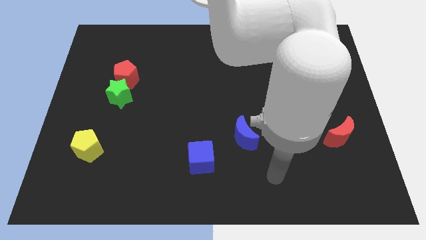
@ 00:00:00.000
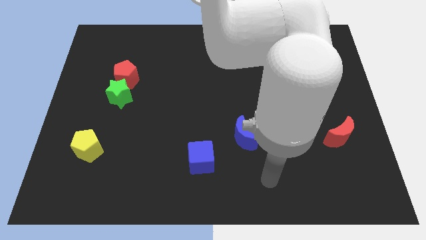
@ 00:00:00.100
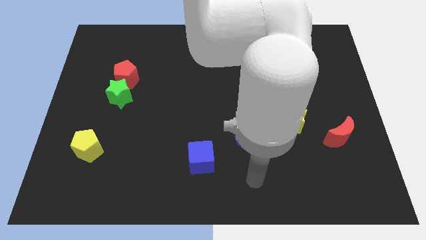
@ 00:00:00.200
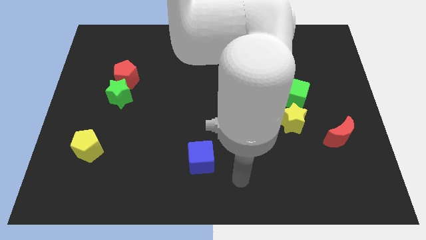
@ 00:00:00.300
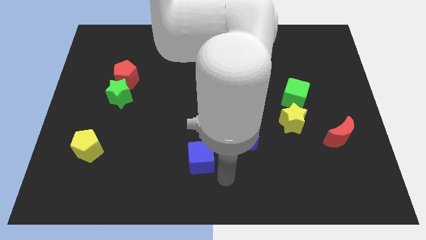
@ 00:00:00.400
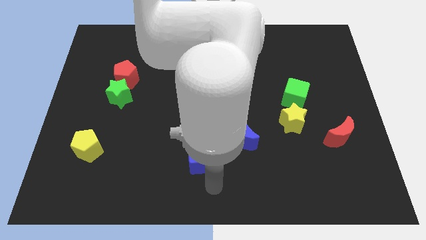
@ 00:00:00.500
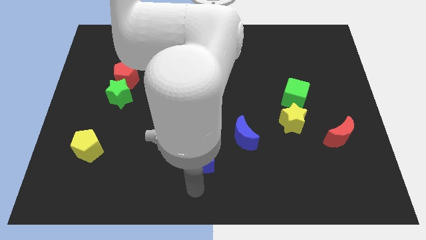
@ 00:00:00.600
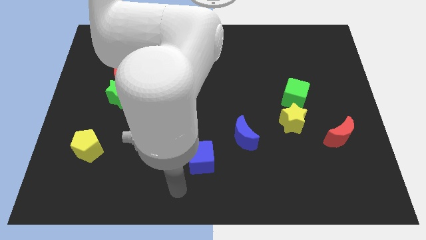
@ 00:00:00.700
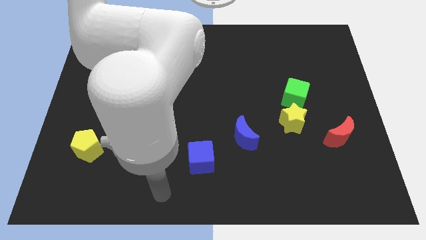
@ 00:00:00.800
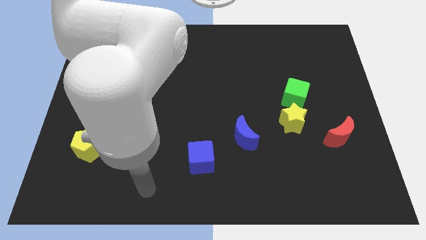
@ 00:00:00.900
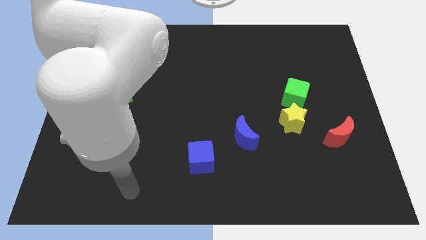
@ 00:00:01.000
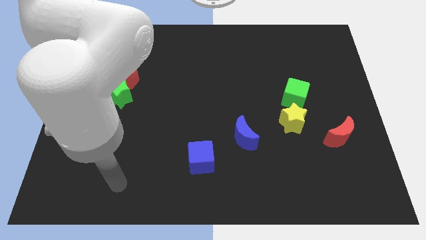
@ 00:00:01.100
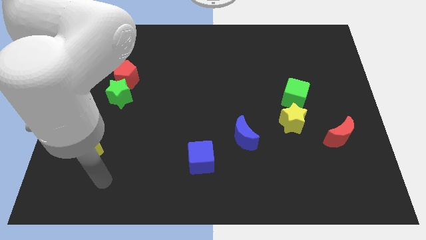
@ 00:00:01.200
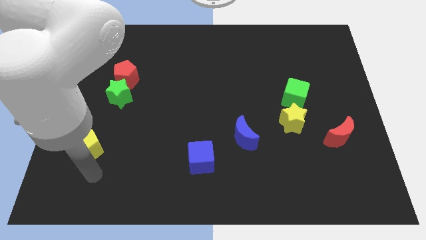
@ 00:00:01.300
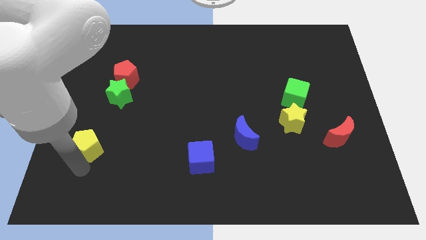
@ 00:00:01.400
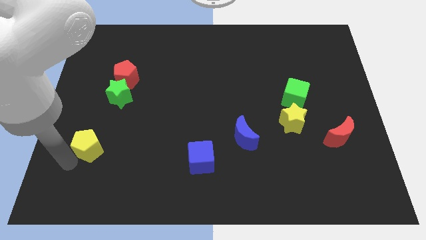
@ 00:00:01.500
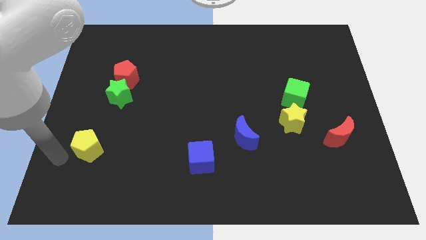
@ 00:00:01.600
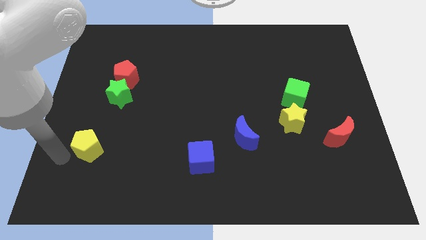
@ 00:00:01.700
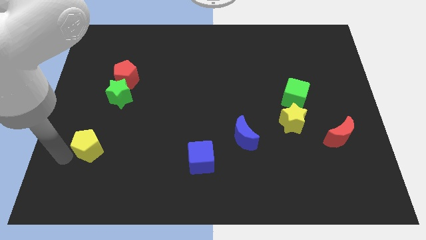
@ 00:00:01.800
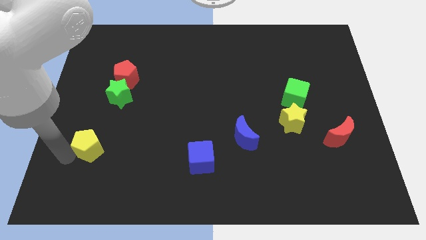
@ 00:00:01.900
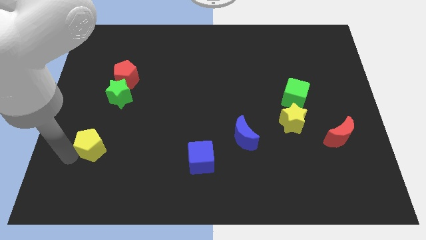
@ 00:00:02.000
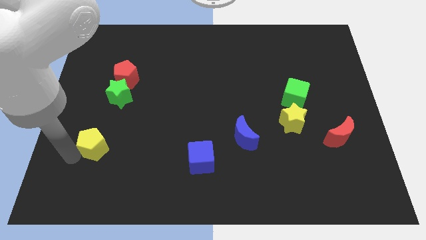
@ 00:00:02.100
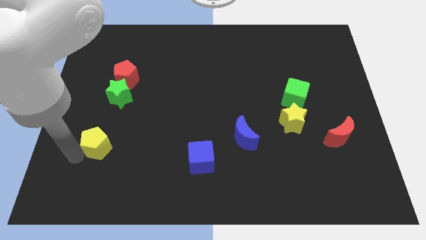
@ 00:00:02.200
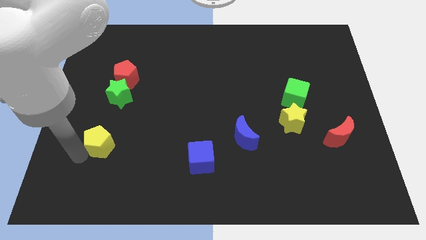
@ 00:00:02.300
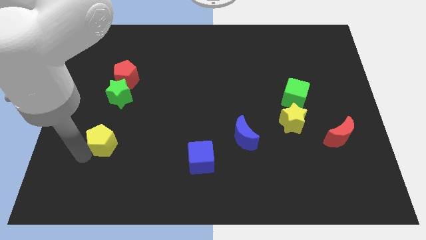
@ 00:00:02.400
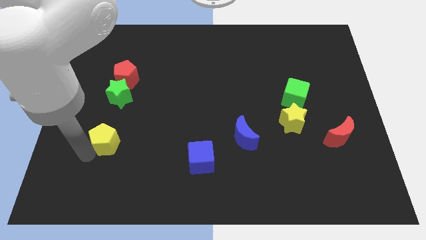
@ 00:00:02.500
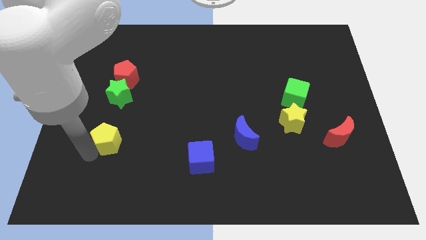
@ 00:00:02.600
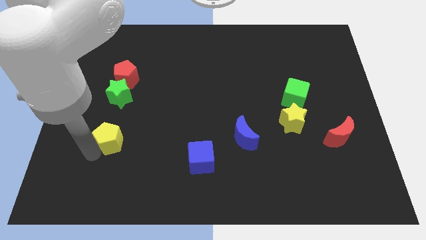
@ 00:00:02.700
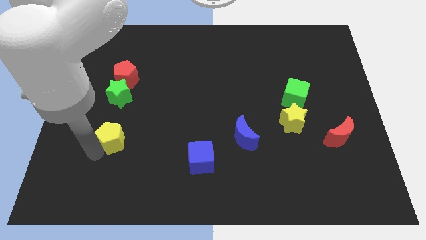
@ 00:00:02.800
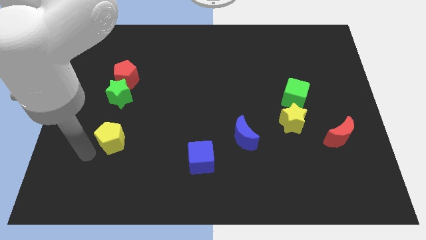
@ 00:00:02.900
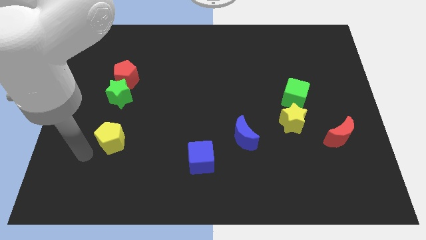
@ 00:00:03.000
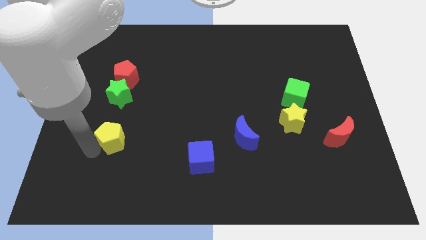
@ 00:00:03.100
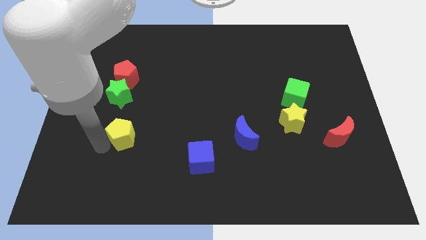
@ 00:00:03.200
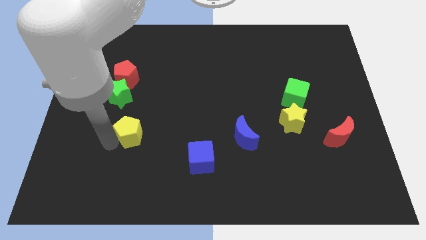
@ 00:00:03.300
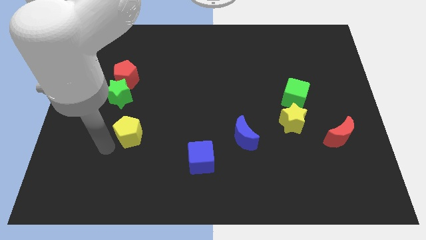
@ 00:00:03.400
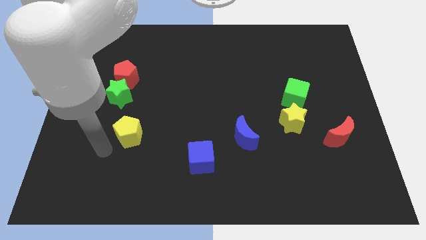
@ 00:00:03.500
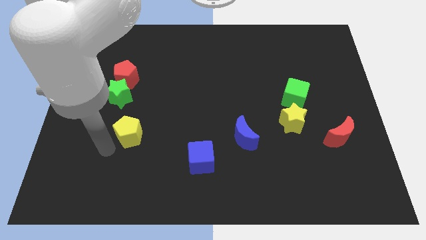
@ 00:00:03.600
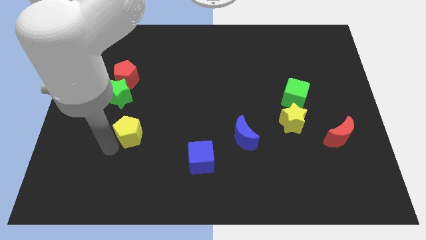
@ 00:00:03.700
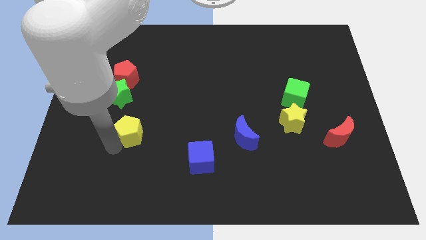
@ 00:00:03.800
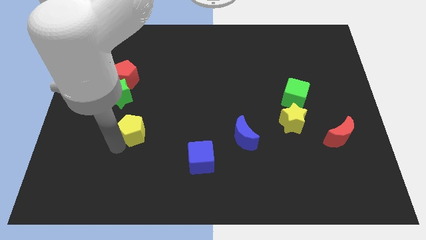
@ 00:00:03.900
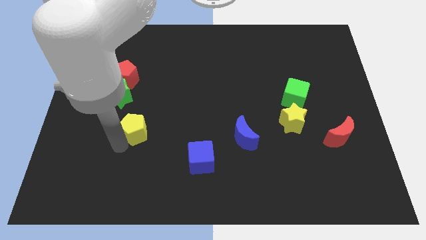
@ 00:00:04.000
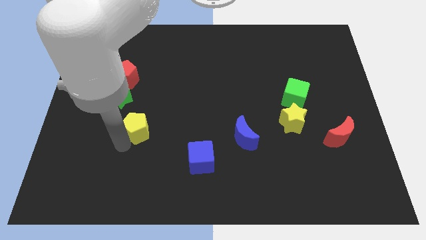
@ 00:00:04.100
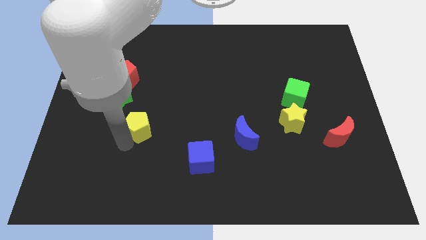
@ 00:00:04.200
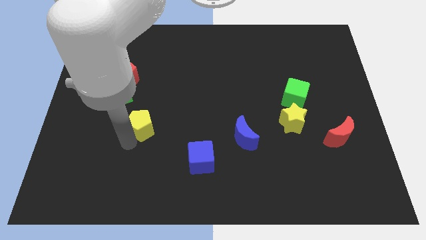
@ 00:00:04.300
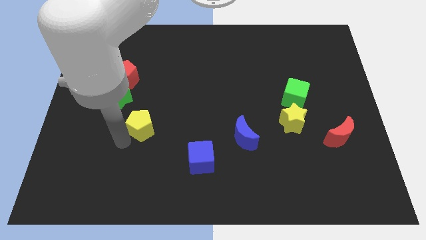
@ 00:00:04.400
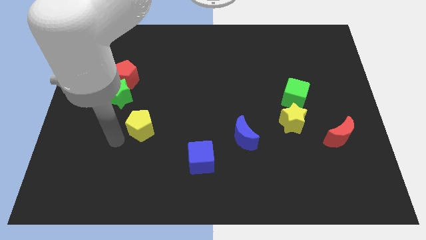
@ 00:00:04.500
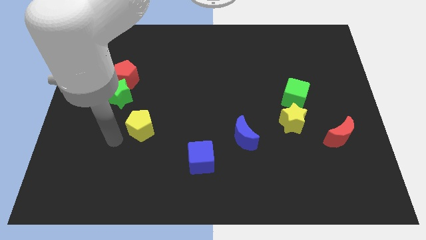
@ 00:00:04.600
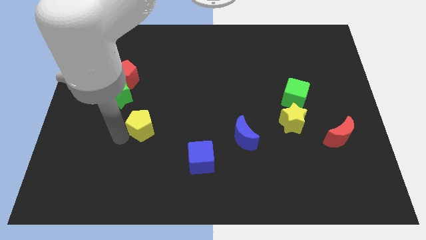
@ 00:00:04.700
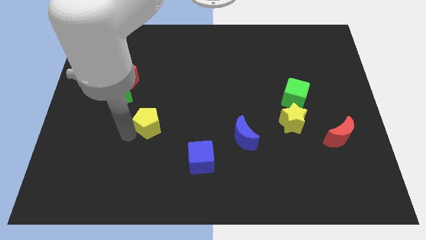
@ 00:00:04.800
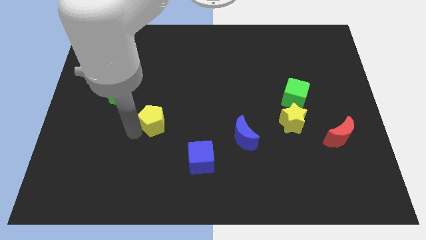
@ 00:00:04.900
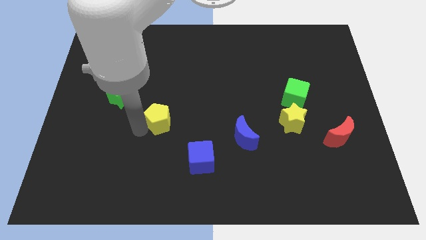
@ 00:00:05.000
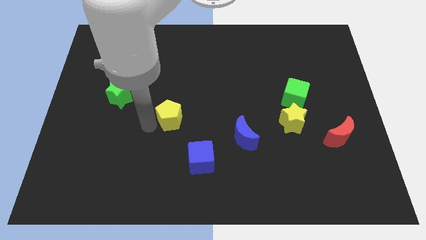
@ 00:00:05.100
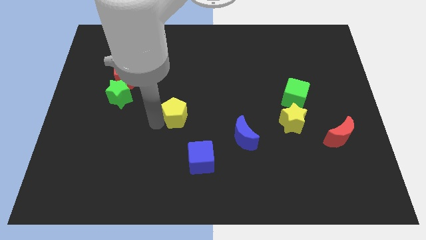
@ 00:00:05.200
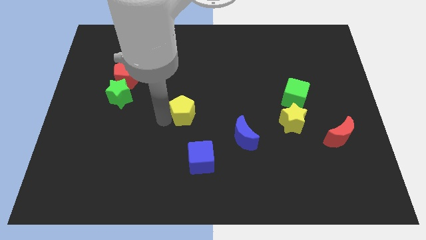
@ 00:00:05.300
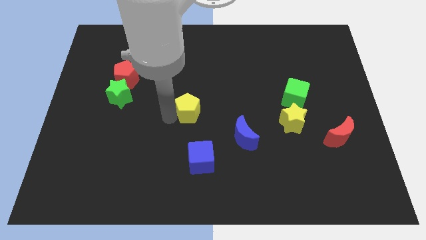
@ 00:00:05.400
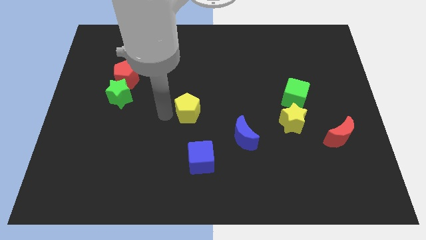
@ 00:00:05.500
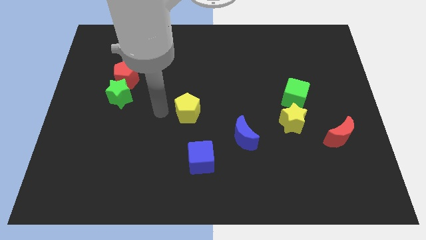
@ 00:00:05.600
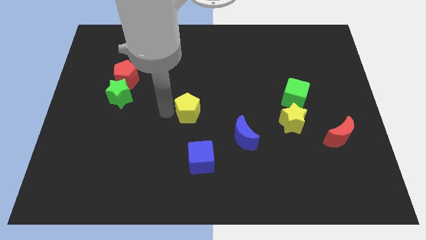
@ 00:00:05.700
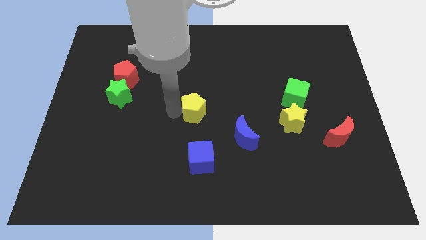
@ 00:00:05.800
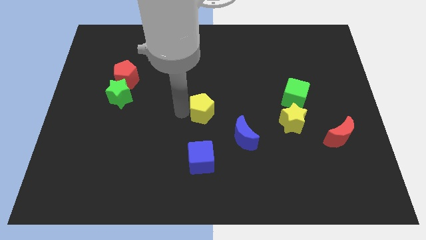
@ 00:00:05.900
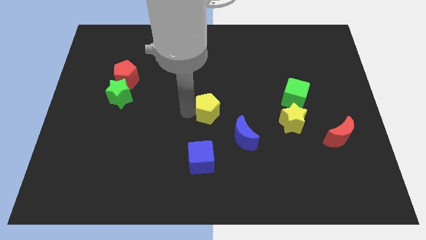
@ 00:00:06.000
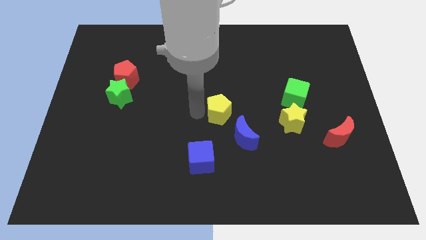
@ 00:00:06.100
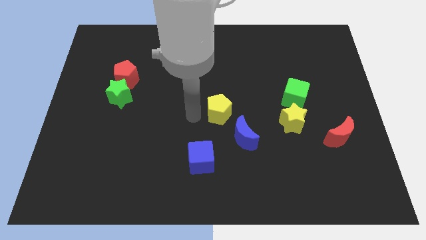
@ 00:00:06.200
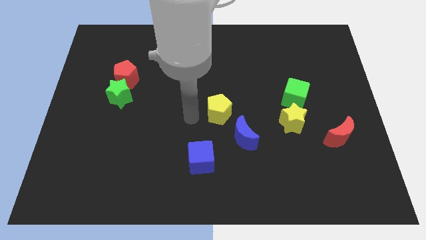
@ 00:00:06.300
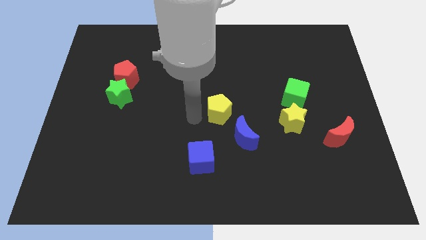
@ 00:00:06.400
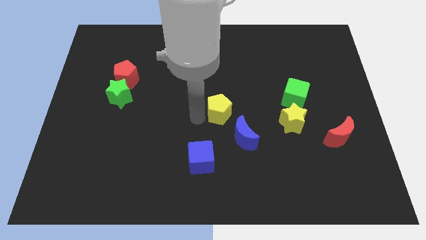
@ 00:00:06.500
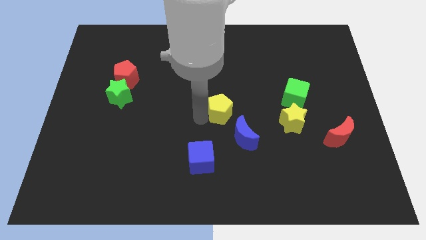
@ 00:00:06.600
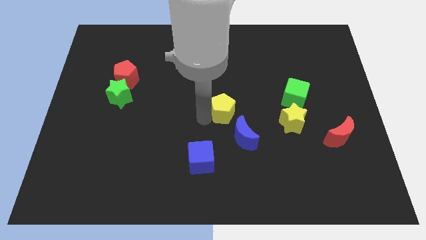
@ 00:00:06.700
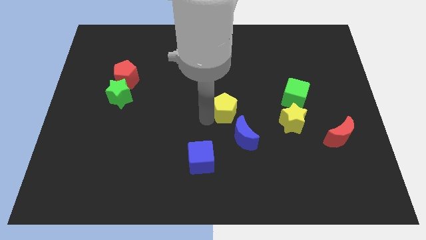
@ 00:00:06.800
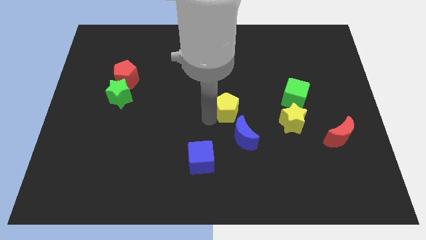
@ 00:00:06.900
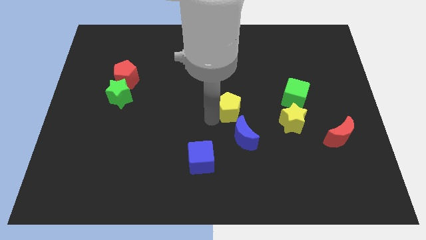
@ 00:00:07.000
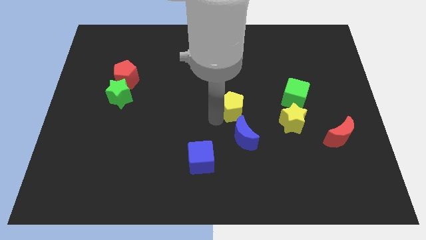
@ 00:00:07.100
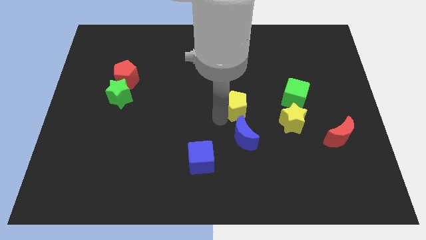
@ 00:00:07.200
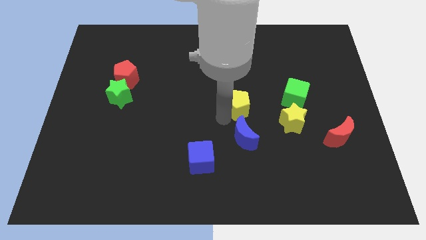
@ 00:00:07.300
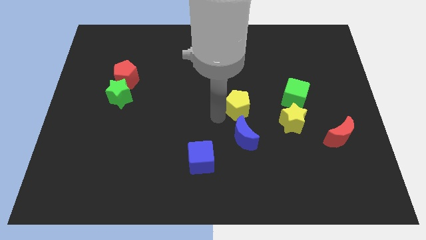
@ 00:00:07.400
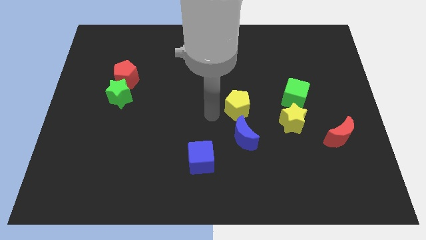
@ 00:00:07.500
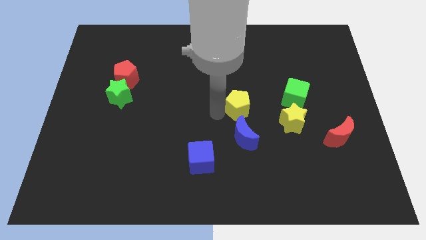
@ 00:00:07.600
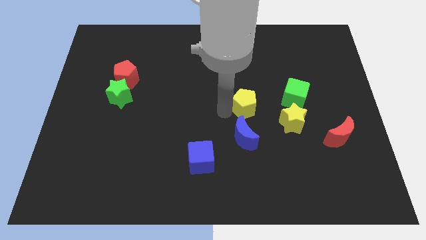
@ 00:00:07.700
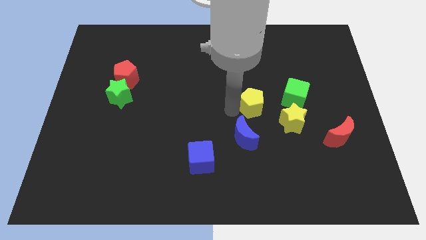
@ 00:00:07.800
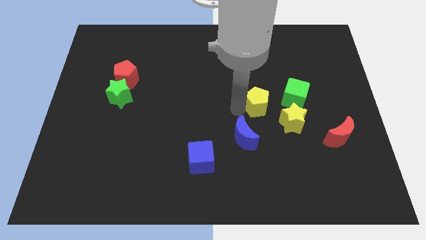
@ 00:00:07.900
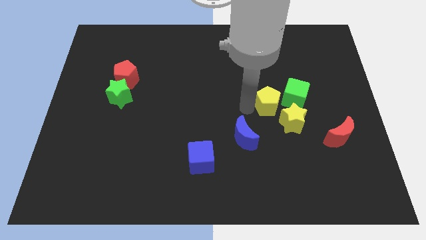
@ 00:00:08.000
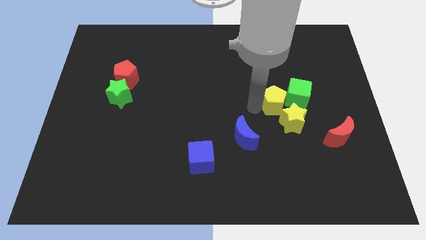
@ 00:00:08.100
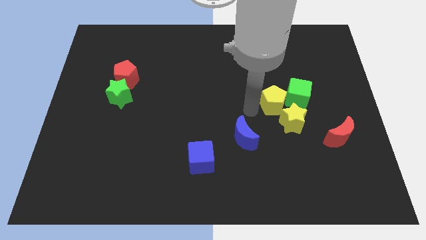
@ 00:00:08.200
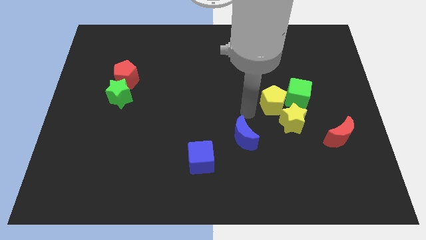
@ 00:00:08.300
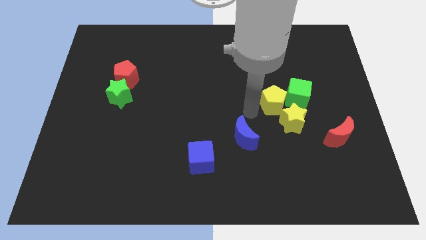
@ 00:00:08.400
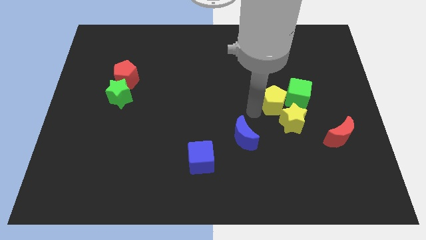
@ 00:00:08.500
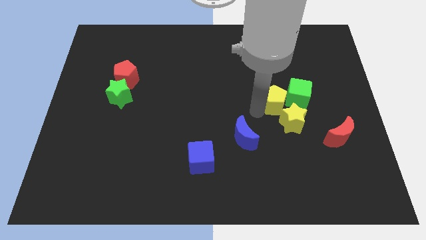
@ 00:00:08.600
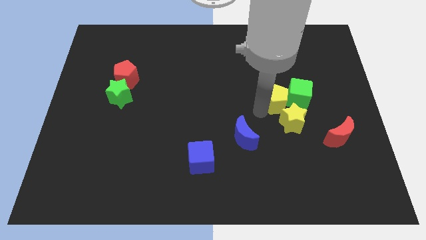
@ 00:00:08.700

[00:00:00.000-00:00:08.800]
move the yellow pentagon towards the green cube
